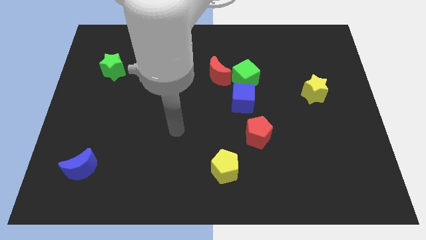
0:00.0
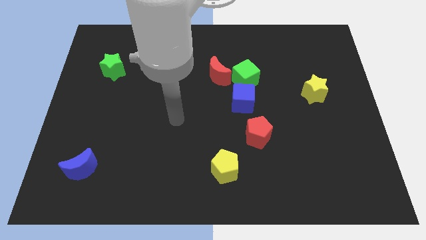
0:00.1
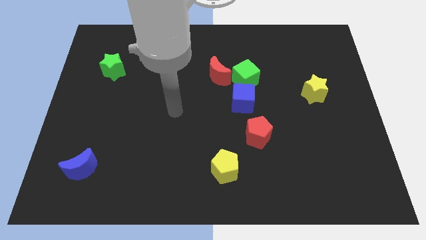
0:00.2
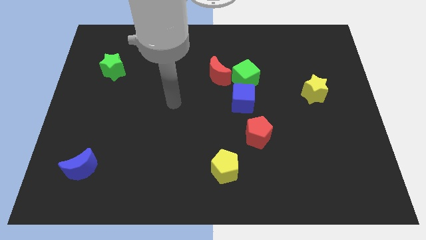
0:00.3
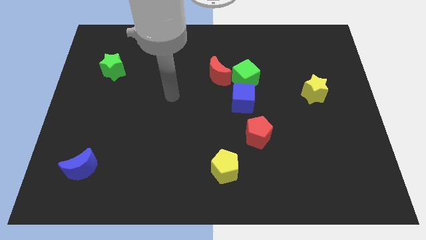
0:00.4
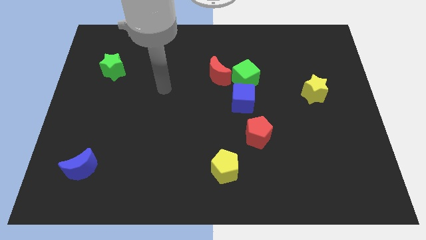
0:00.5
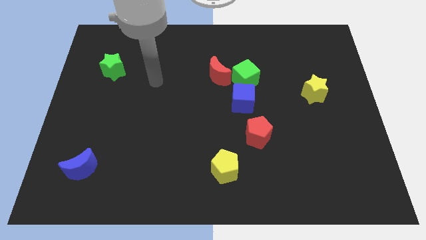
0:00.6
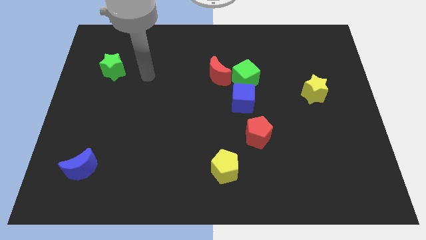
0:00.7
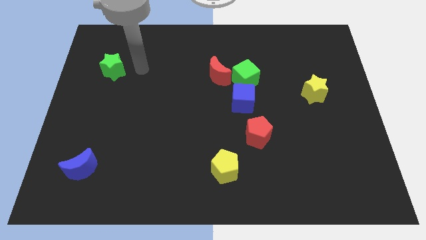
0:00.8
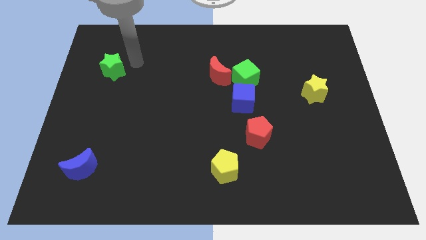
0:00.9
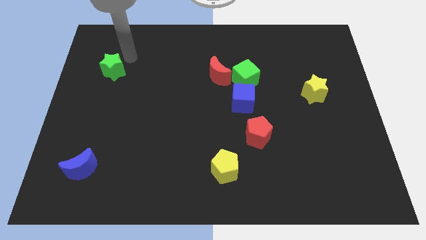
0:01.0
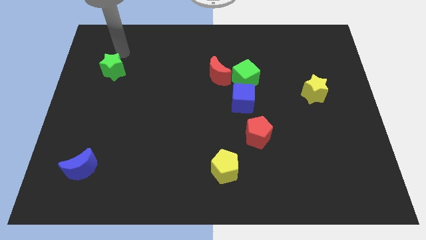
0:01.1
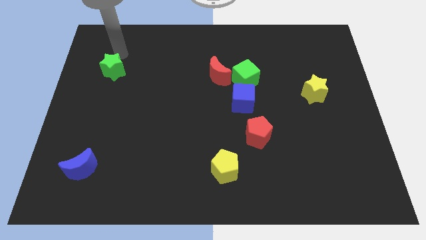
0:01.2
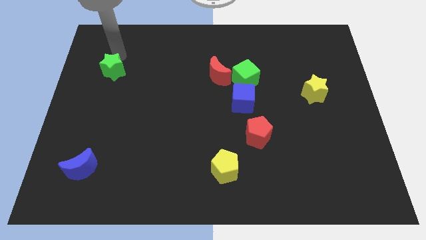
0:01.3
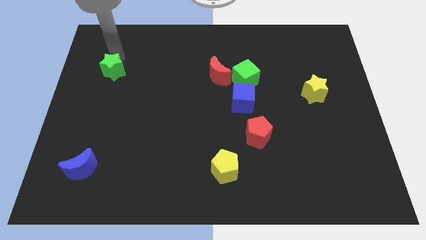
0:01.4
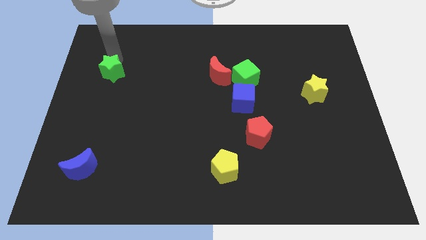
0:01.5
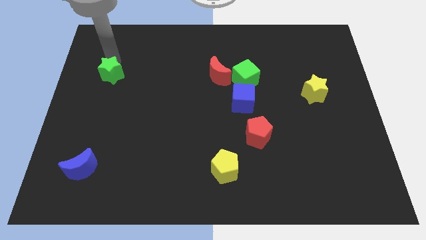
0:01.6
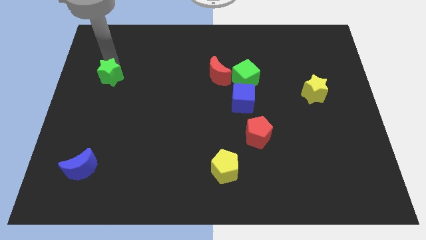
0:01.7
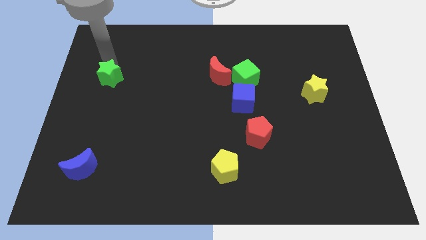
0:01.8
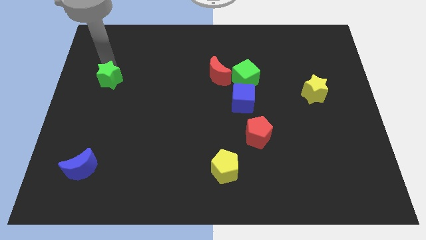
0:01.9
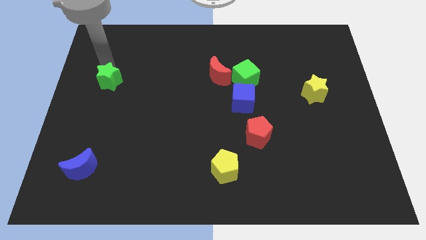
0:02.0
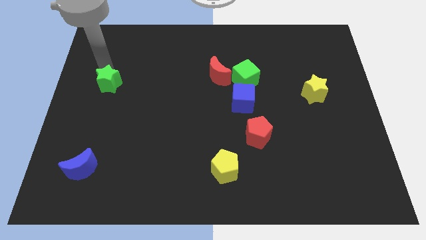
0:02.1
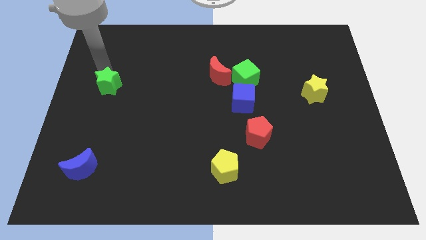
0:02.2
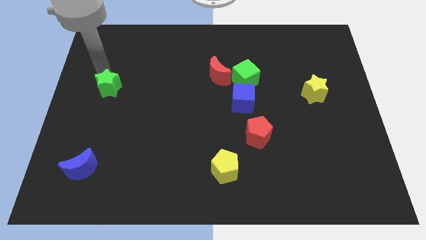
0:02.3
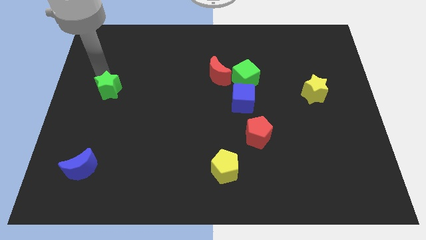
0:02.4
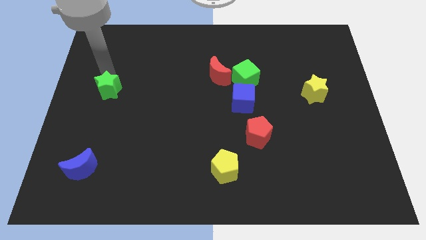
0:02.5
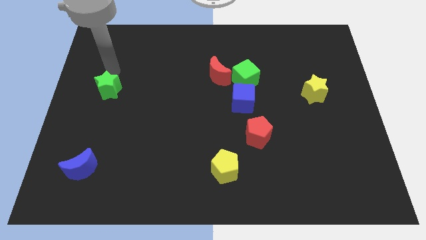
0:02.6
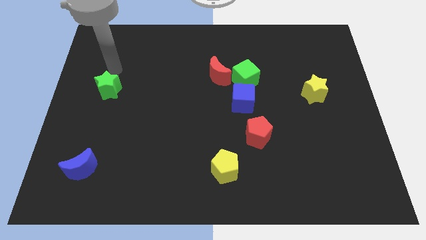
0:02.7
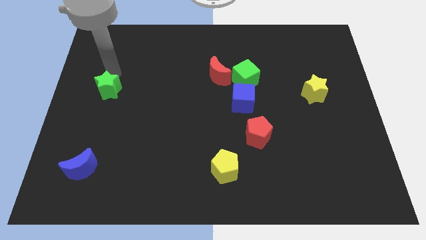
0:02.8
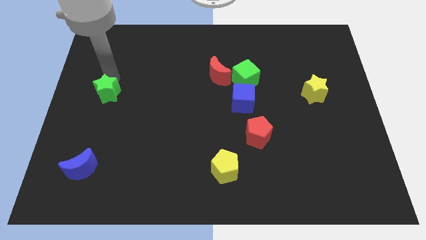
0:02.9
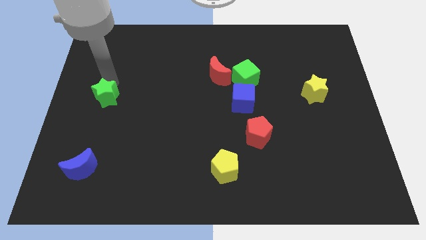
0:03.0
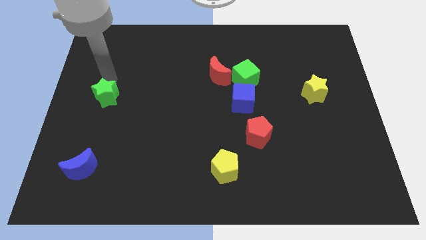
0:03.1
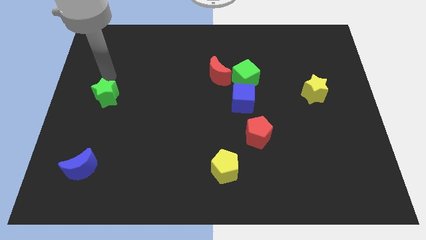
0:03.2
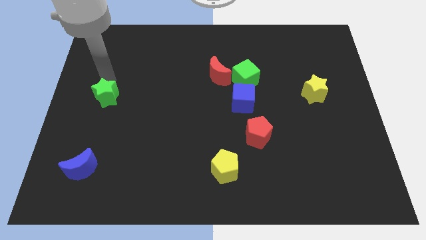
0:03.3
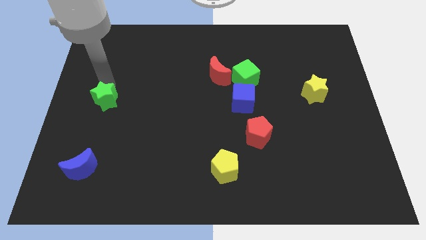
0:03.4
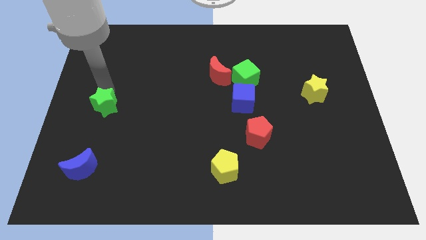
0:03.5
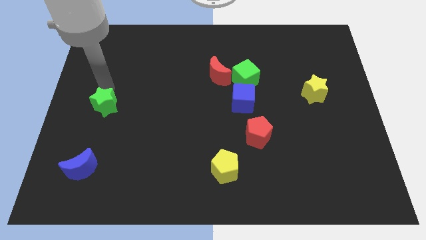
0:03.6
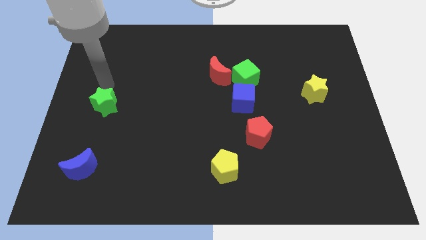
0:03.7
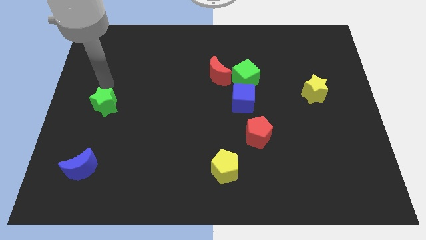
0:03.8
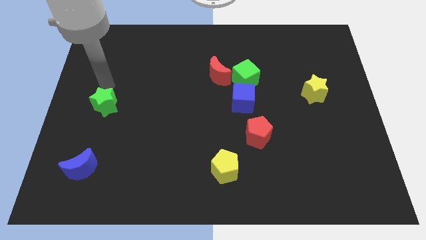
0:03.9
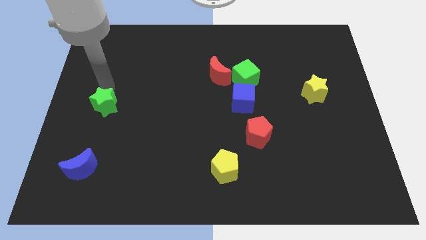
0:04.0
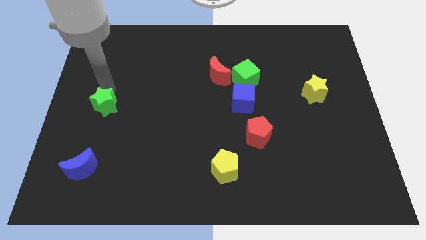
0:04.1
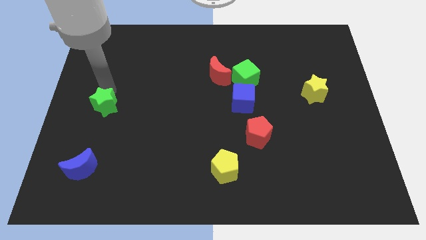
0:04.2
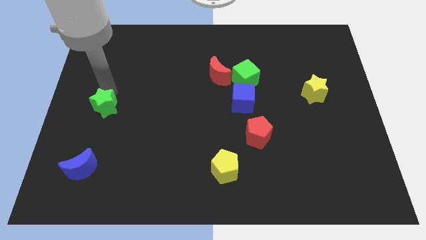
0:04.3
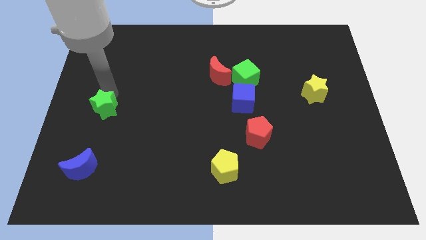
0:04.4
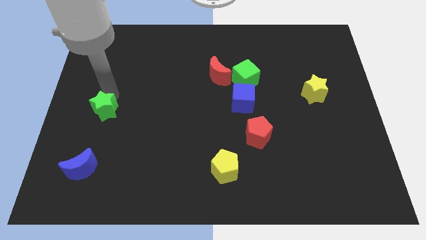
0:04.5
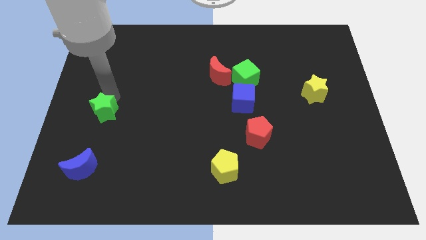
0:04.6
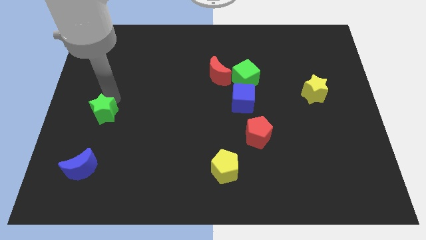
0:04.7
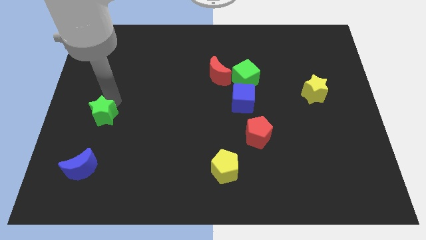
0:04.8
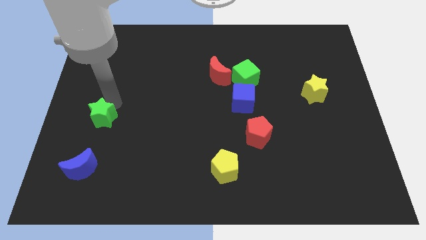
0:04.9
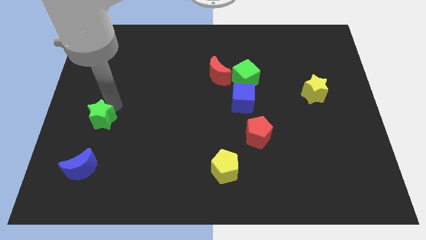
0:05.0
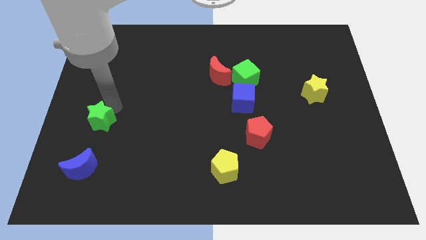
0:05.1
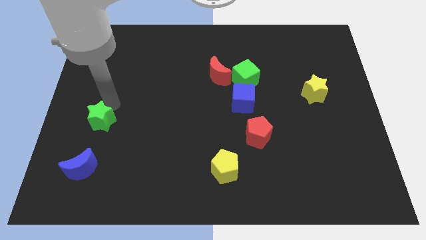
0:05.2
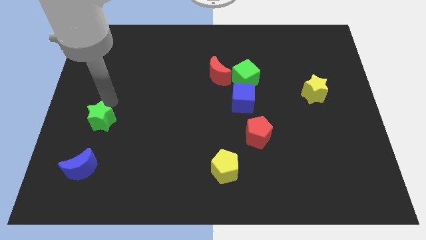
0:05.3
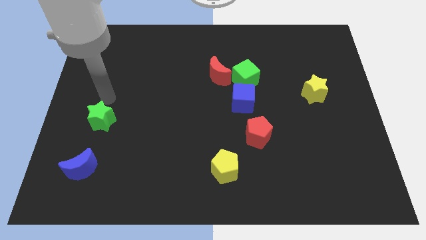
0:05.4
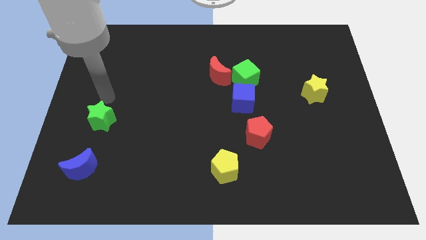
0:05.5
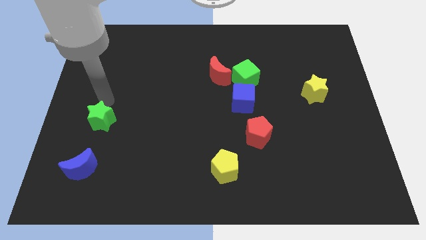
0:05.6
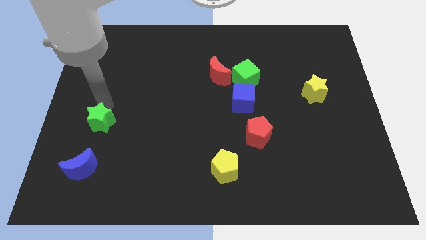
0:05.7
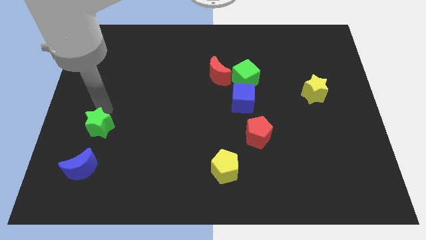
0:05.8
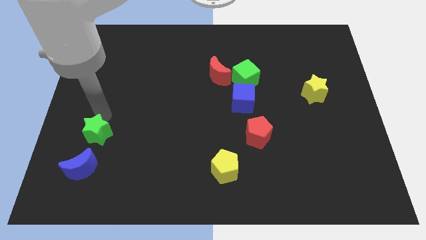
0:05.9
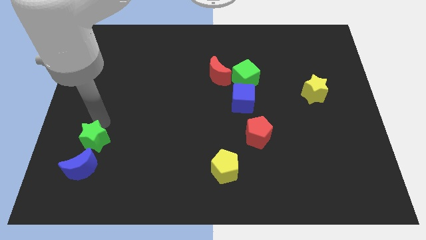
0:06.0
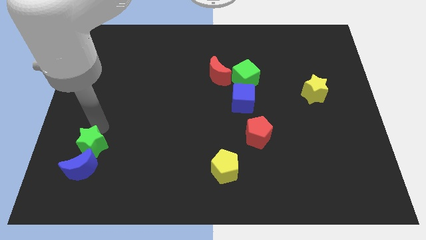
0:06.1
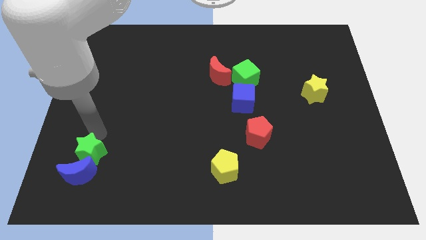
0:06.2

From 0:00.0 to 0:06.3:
put the green star towards the blue moon

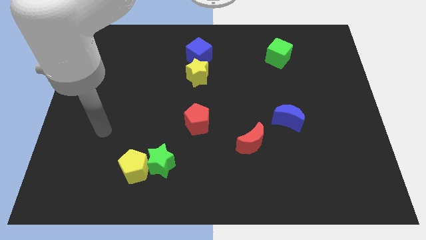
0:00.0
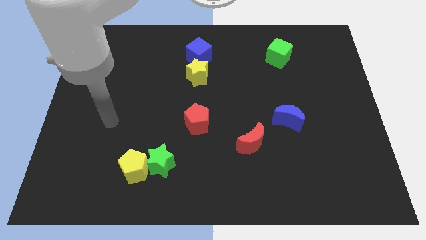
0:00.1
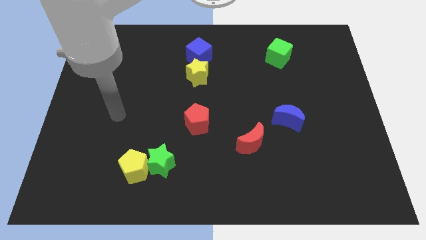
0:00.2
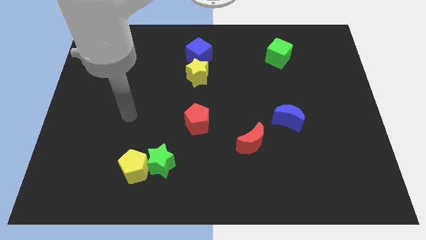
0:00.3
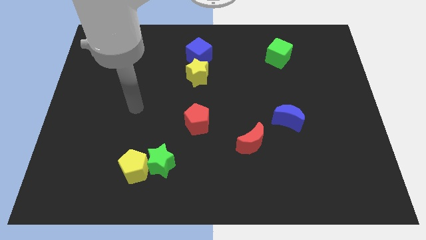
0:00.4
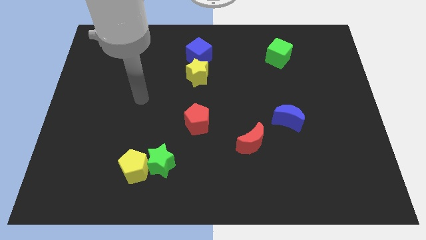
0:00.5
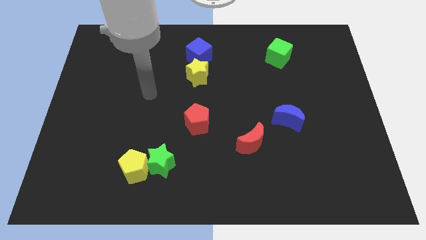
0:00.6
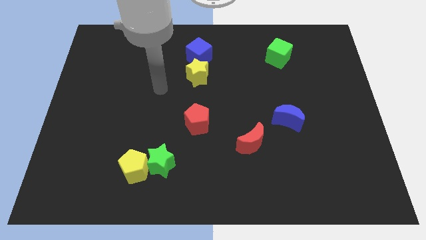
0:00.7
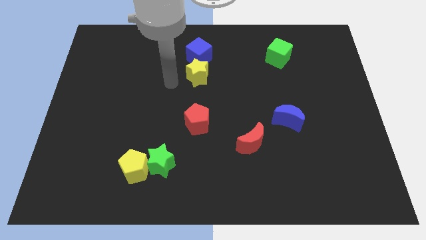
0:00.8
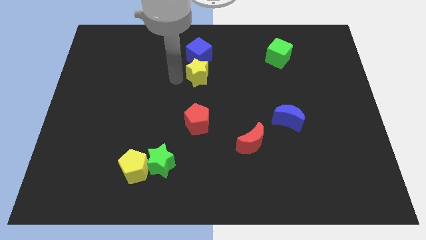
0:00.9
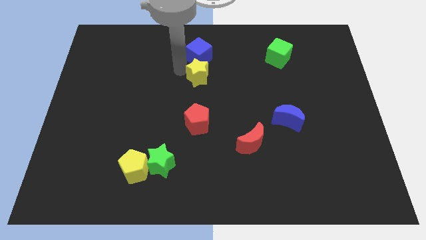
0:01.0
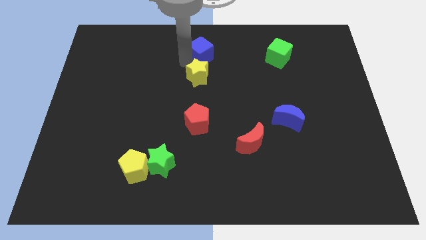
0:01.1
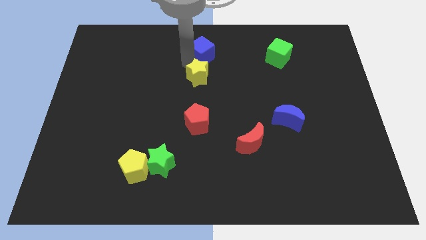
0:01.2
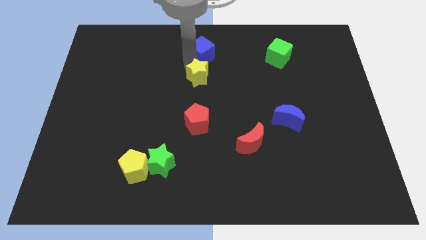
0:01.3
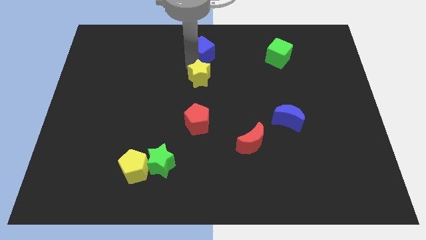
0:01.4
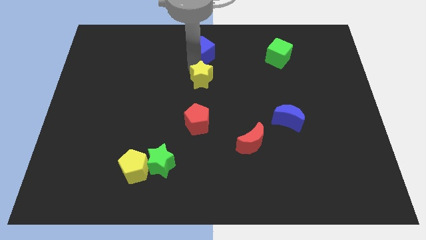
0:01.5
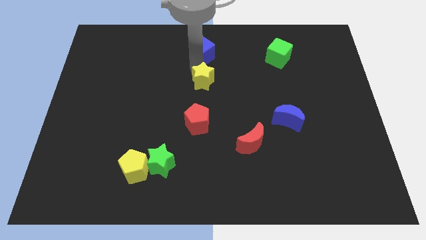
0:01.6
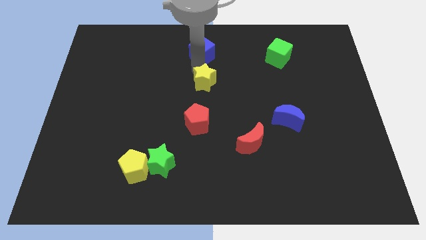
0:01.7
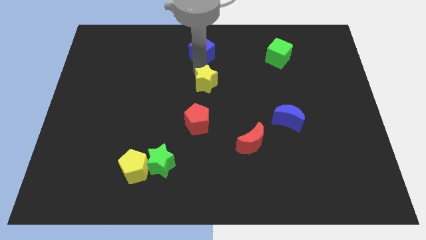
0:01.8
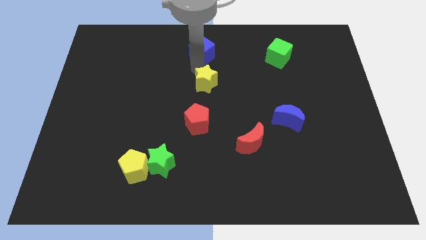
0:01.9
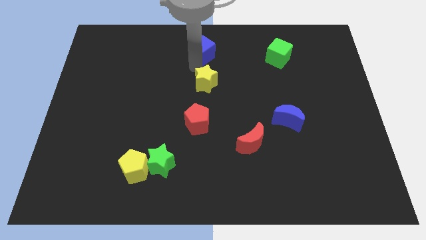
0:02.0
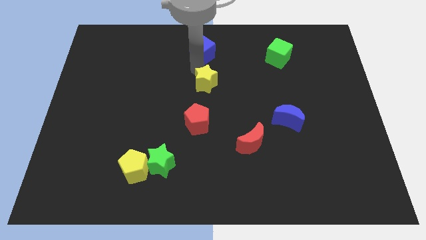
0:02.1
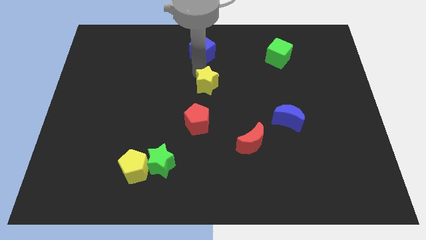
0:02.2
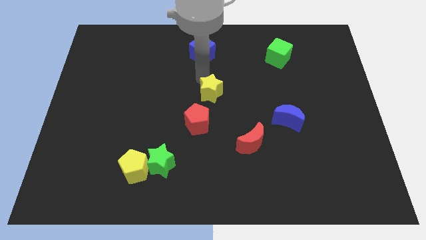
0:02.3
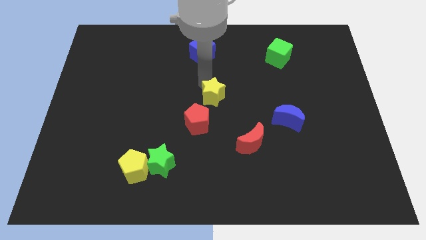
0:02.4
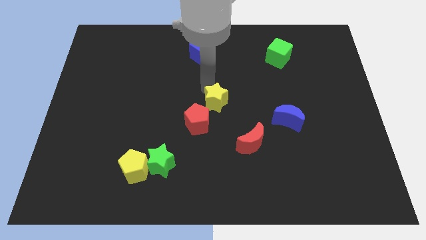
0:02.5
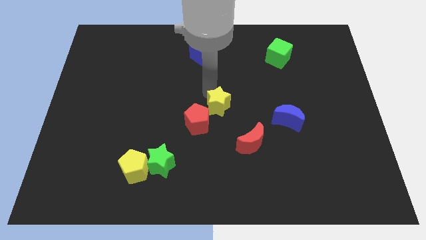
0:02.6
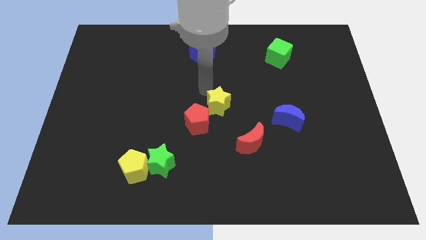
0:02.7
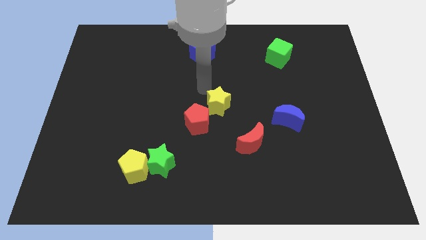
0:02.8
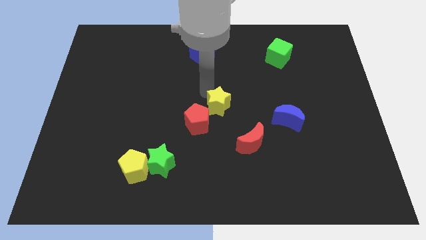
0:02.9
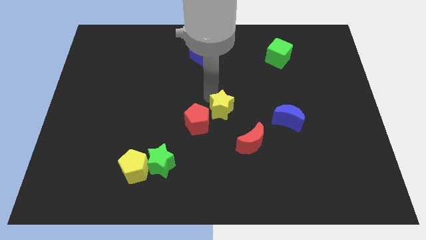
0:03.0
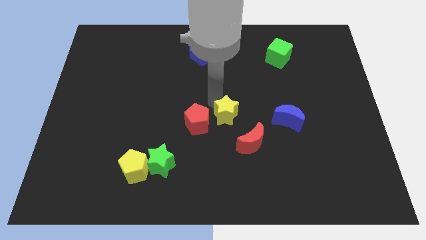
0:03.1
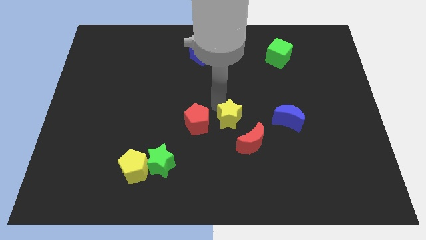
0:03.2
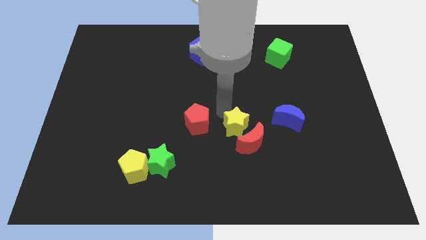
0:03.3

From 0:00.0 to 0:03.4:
put the yellow star to the red moon
